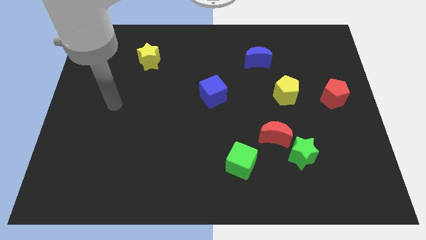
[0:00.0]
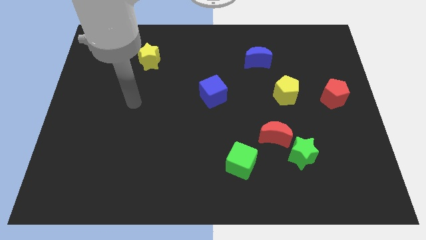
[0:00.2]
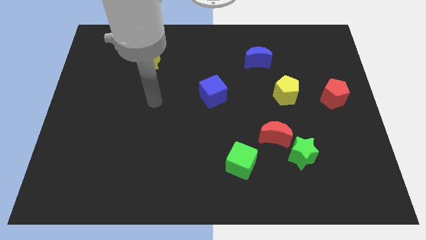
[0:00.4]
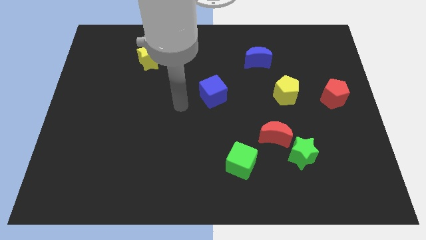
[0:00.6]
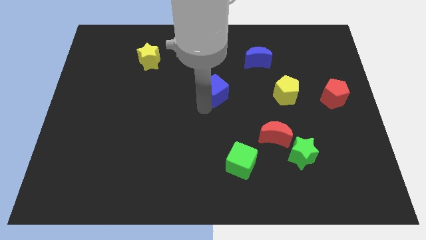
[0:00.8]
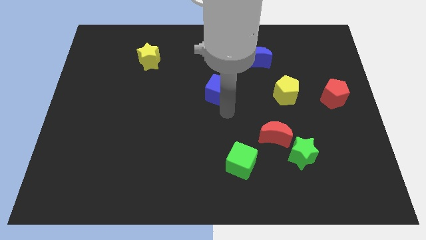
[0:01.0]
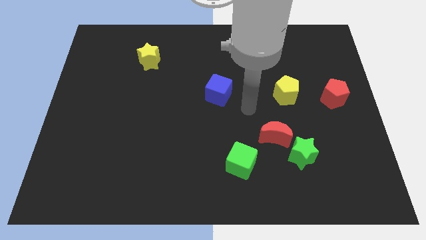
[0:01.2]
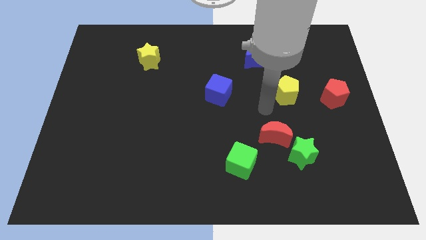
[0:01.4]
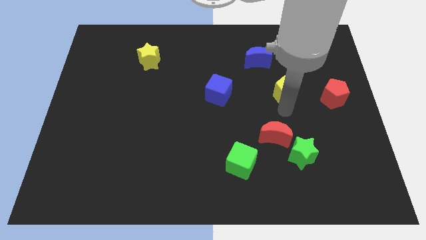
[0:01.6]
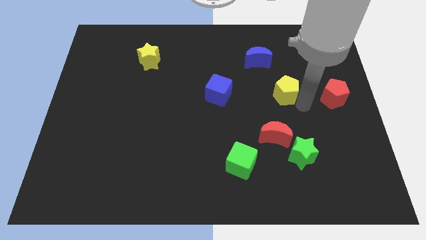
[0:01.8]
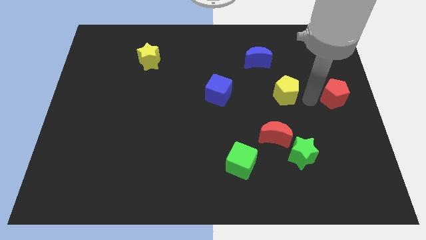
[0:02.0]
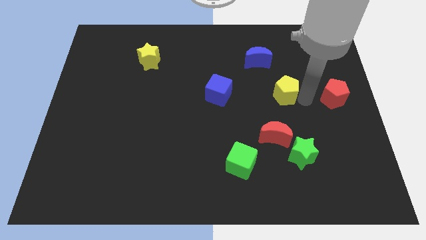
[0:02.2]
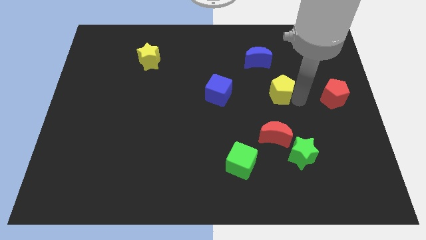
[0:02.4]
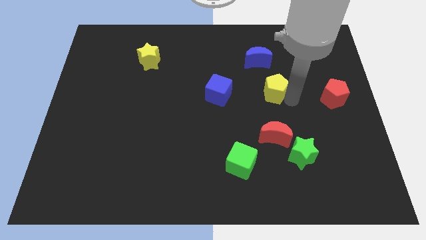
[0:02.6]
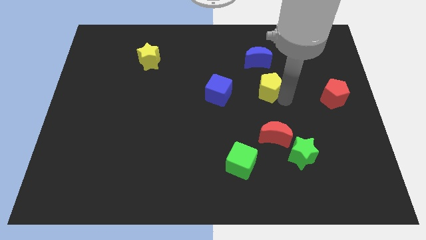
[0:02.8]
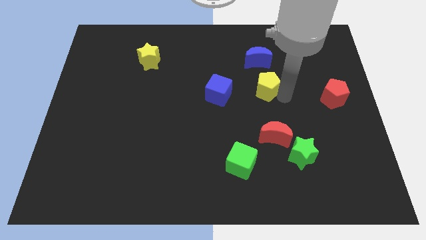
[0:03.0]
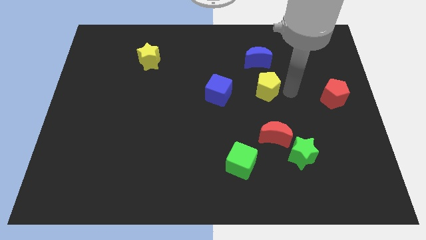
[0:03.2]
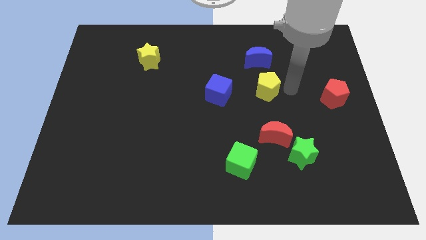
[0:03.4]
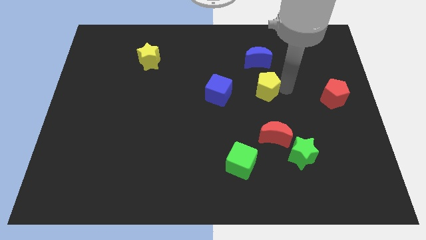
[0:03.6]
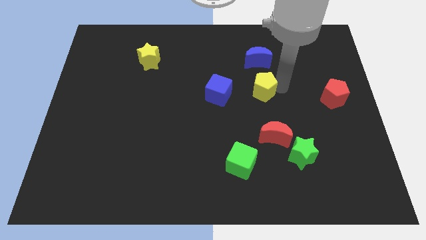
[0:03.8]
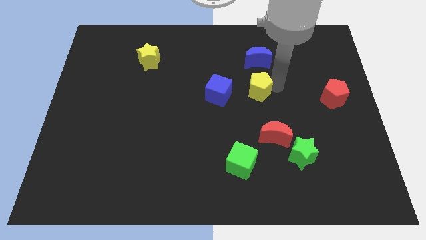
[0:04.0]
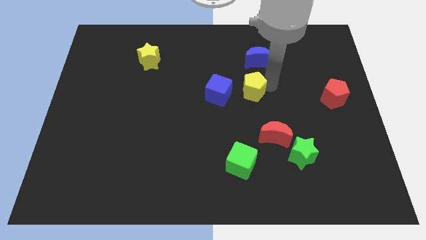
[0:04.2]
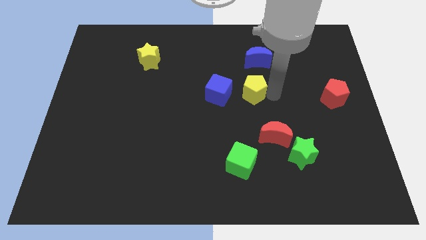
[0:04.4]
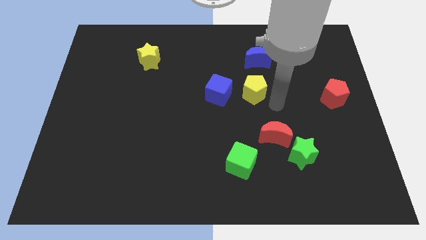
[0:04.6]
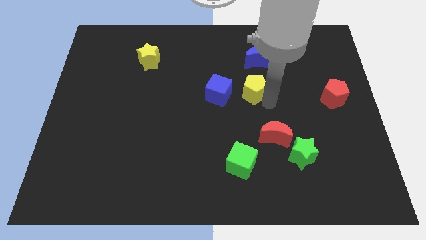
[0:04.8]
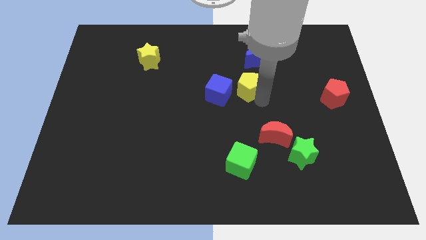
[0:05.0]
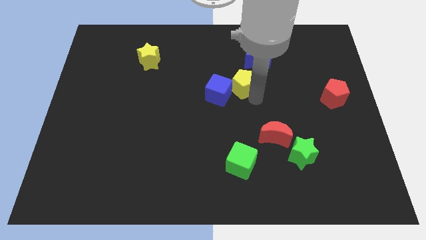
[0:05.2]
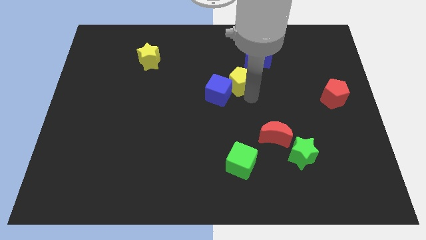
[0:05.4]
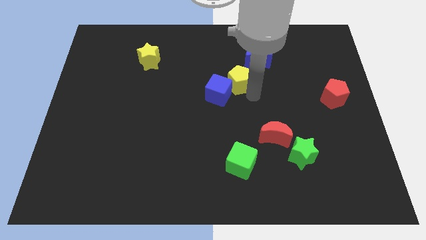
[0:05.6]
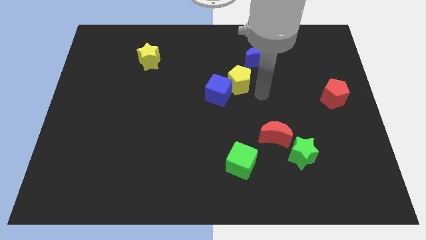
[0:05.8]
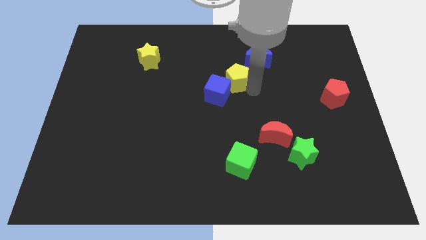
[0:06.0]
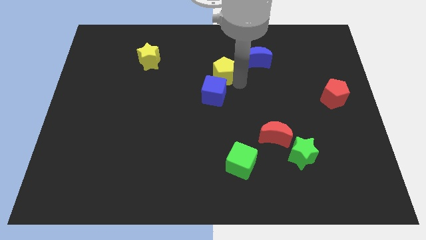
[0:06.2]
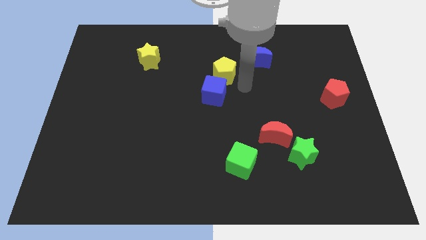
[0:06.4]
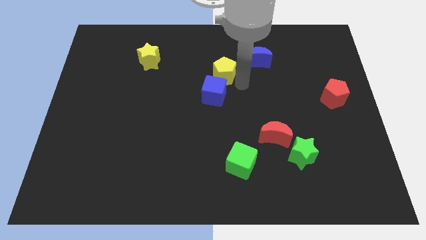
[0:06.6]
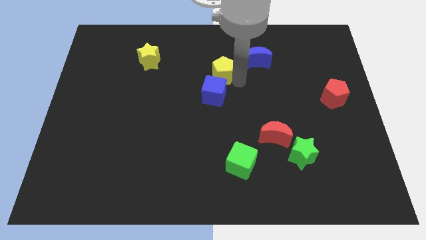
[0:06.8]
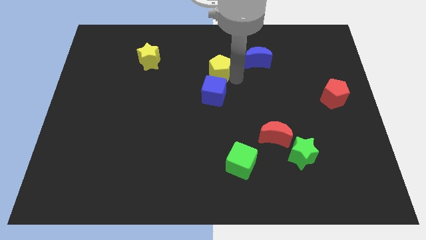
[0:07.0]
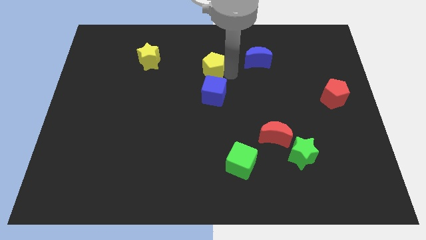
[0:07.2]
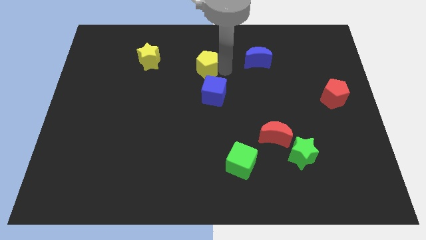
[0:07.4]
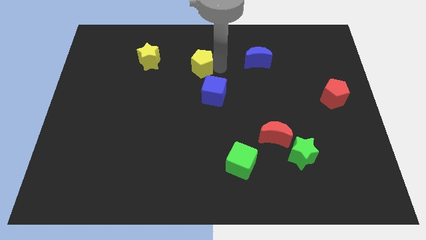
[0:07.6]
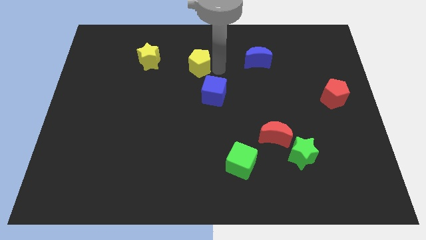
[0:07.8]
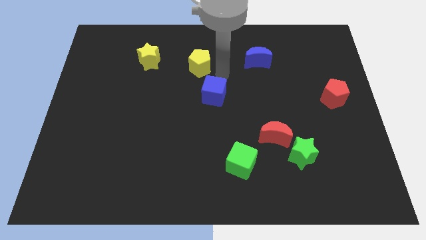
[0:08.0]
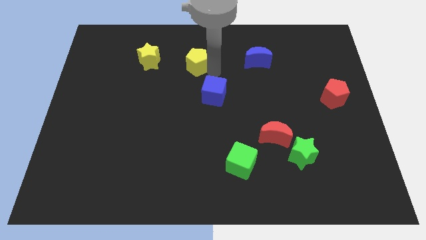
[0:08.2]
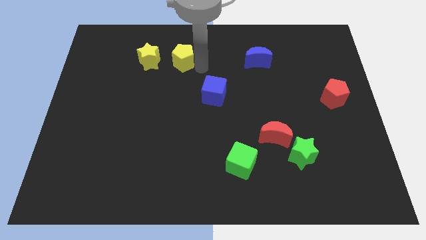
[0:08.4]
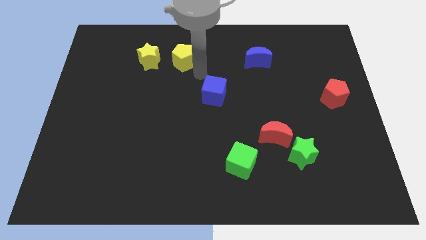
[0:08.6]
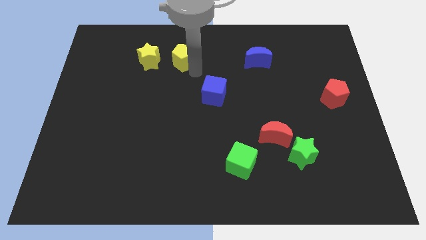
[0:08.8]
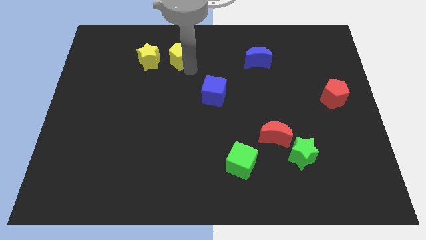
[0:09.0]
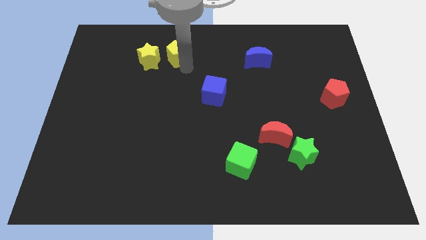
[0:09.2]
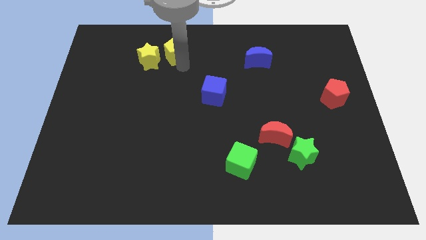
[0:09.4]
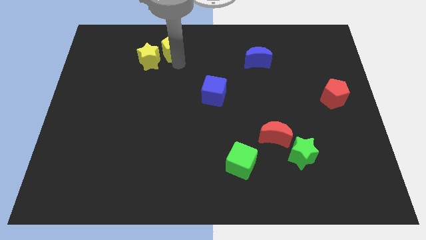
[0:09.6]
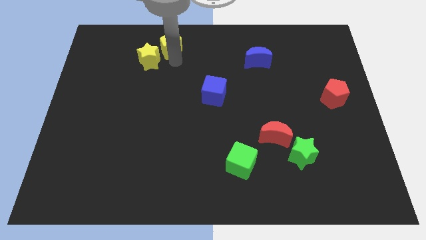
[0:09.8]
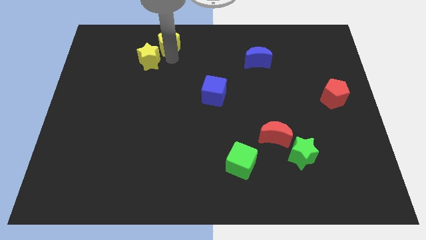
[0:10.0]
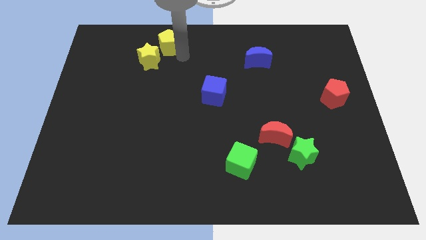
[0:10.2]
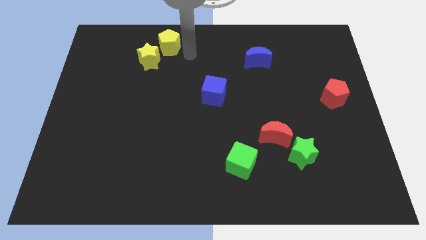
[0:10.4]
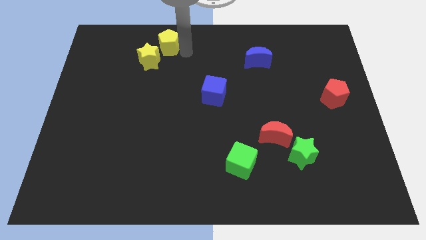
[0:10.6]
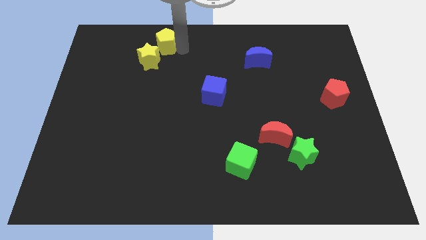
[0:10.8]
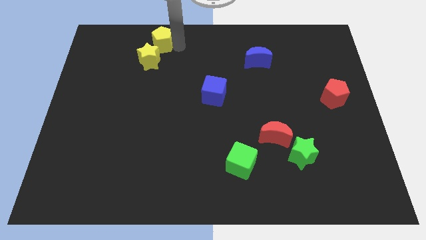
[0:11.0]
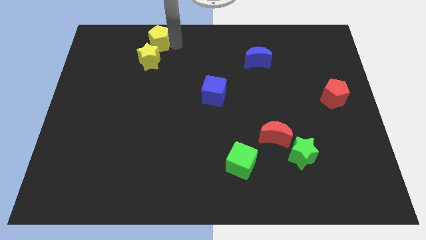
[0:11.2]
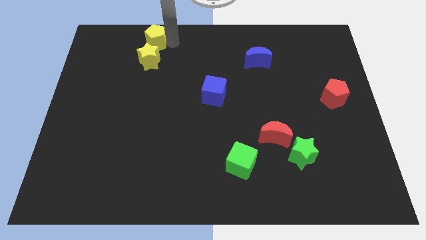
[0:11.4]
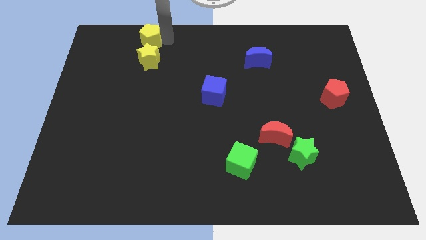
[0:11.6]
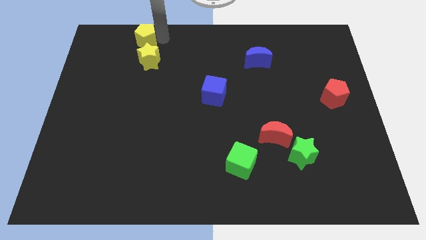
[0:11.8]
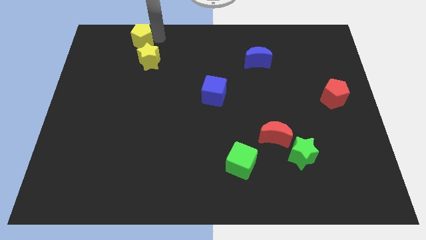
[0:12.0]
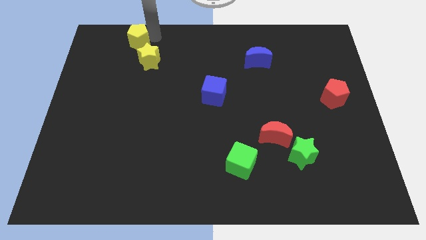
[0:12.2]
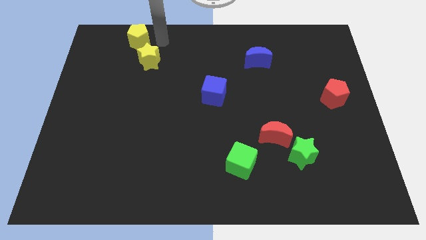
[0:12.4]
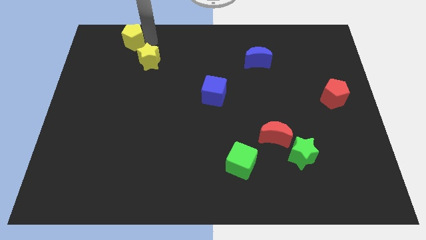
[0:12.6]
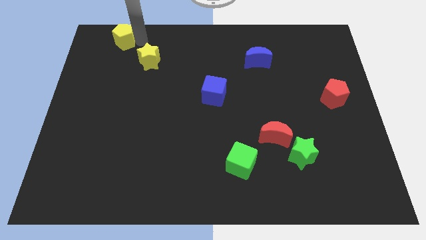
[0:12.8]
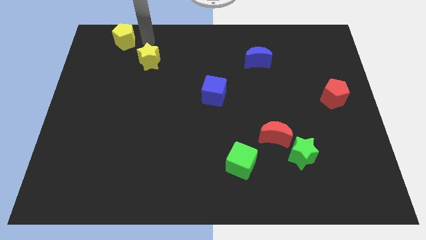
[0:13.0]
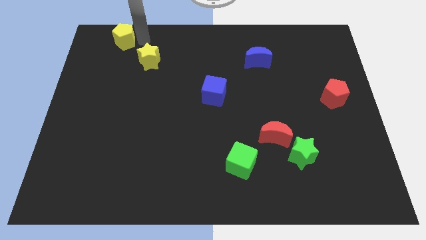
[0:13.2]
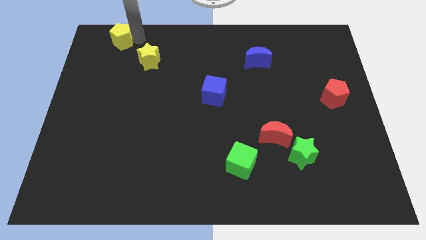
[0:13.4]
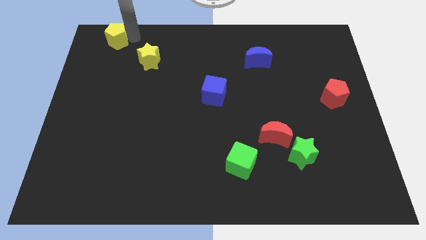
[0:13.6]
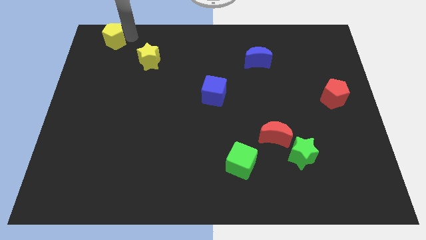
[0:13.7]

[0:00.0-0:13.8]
push the yellow pentagon to the top left of the board
